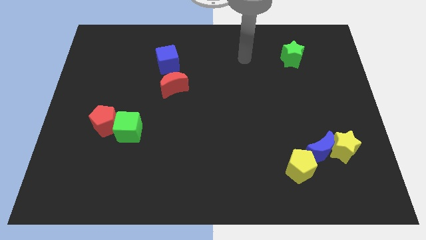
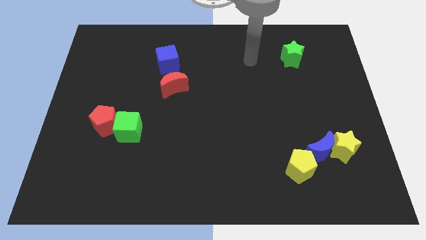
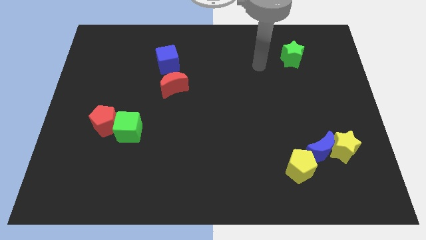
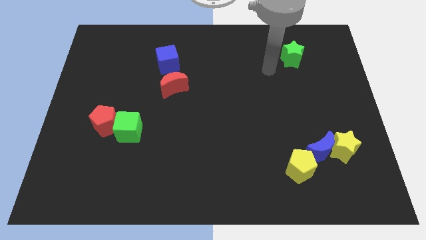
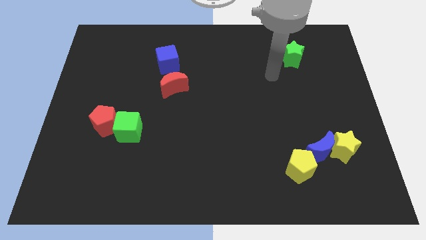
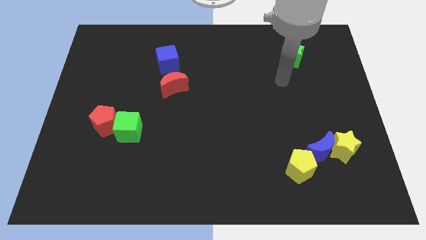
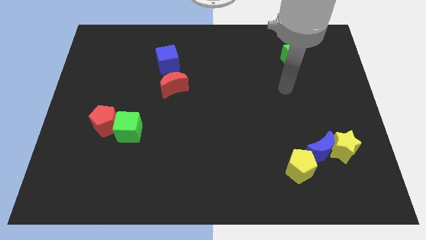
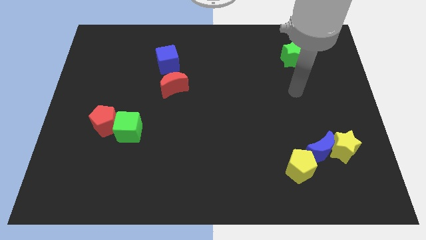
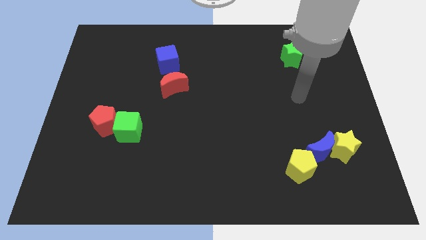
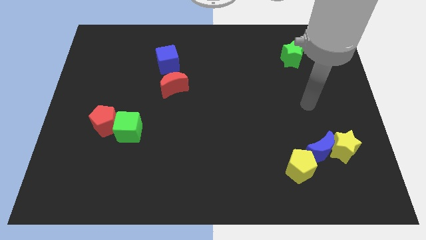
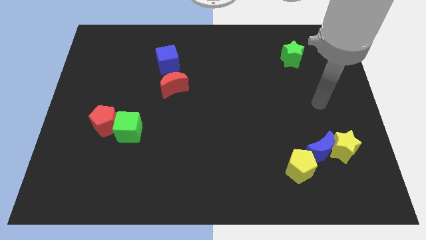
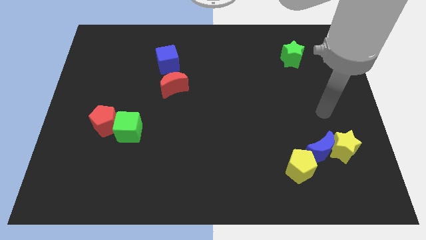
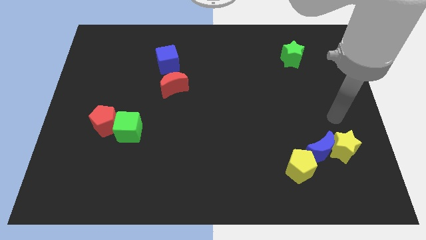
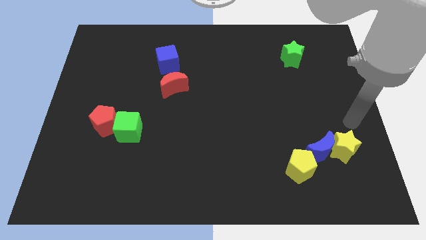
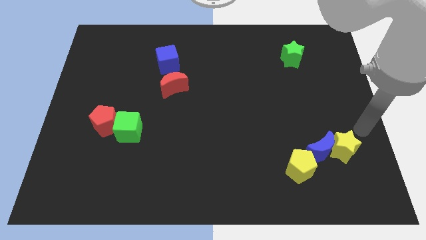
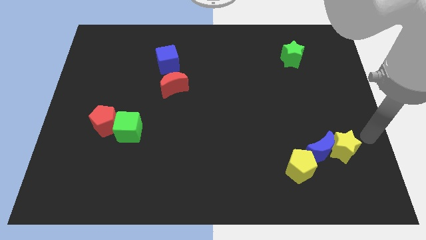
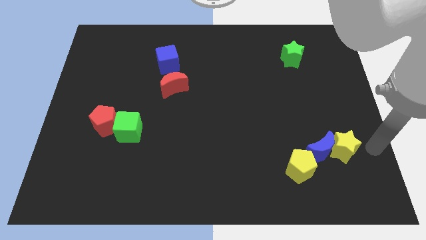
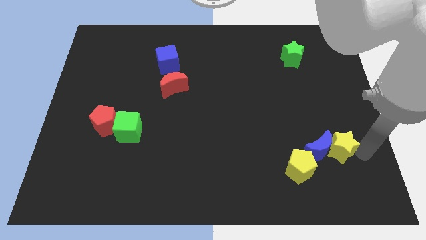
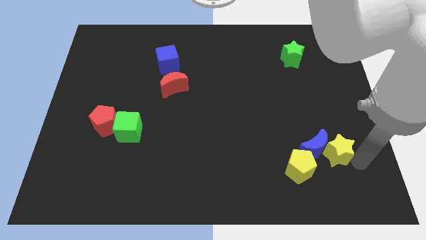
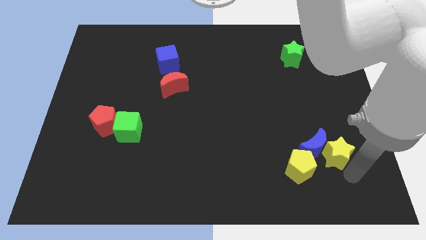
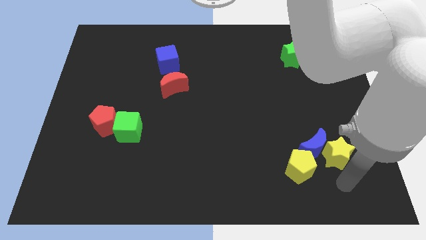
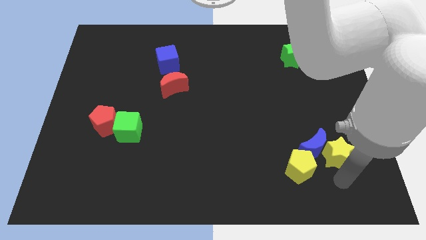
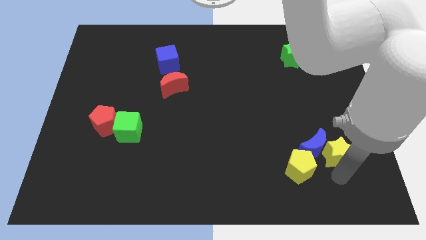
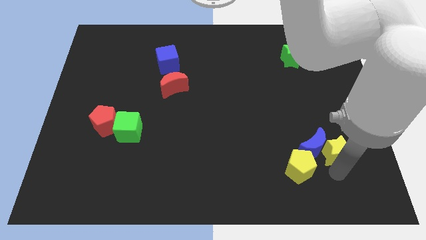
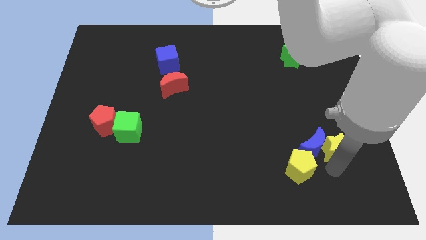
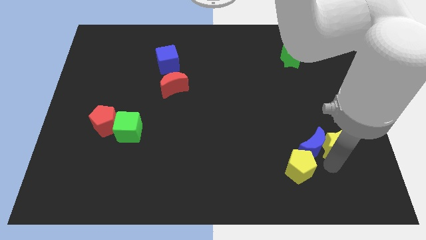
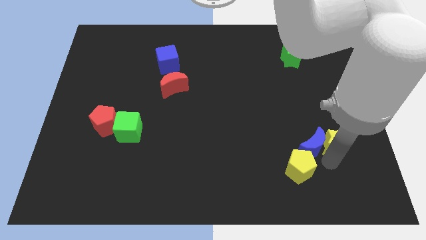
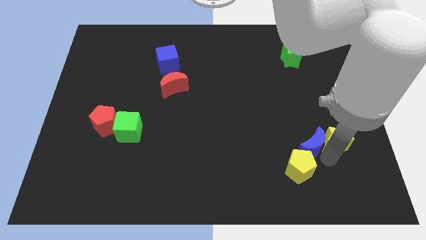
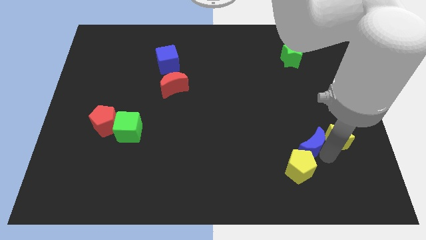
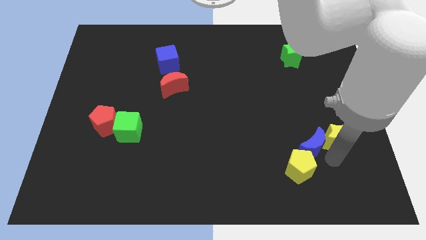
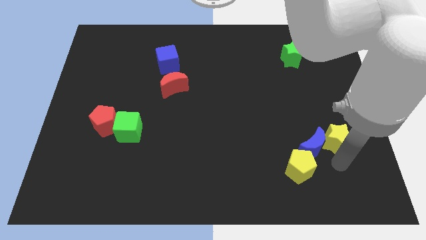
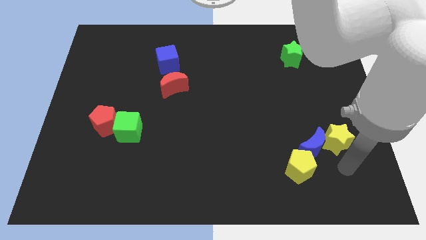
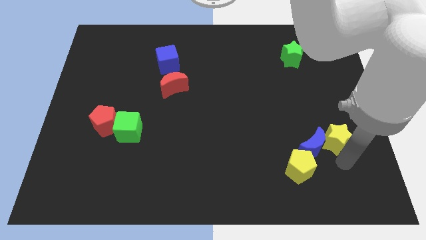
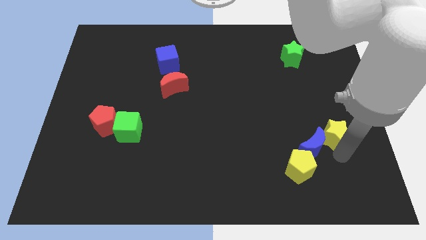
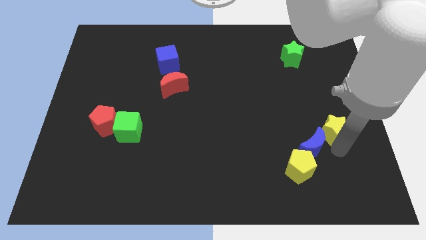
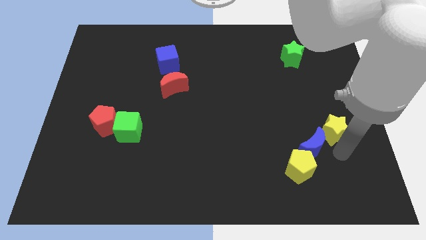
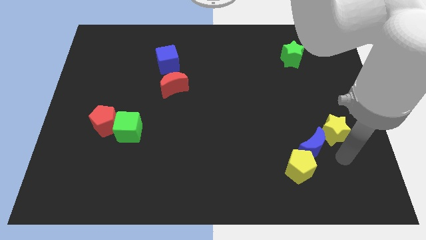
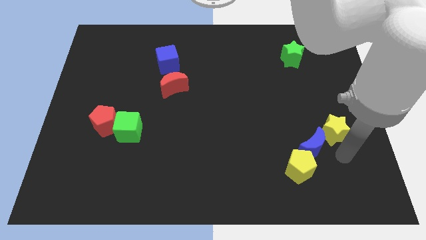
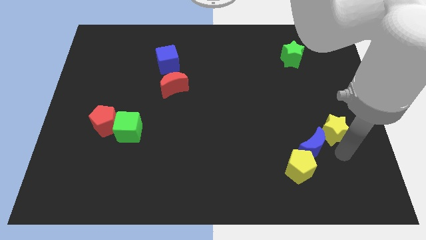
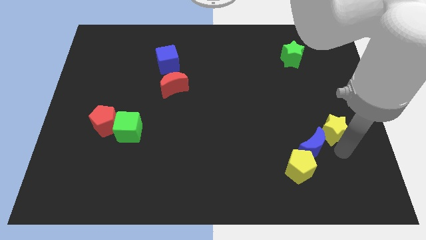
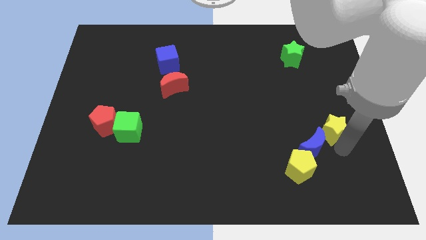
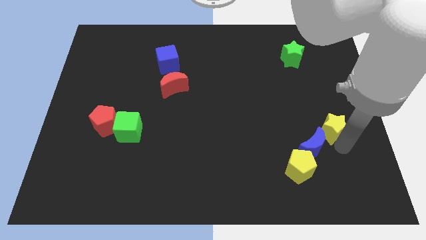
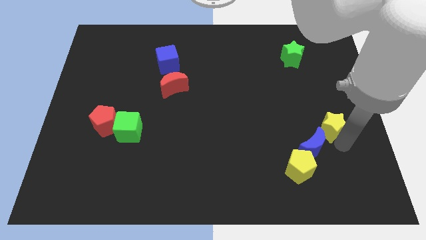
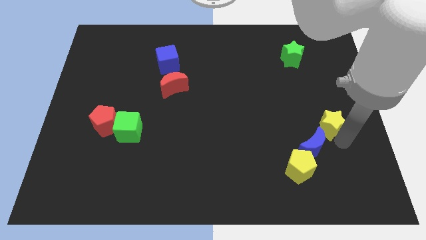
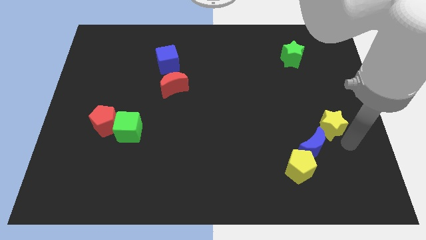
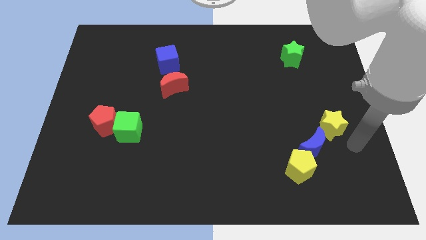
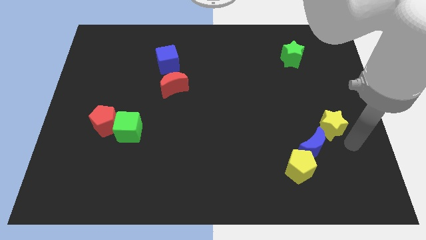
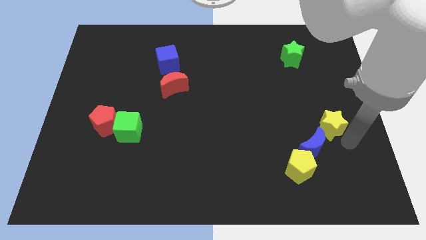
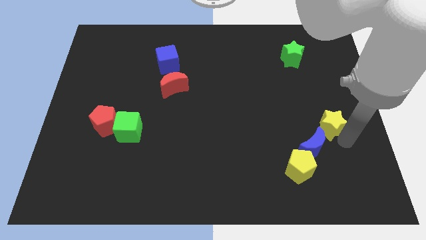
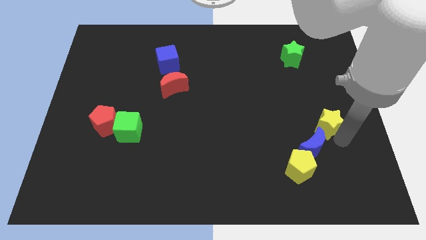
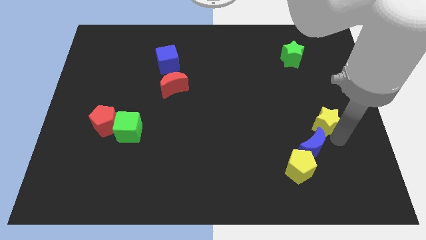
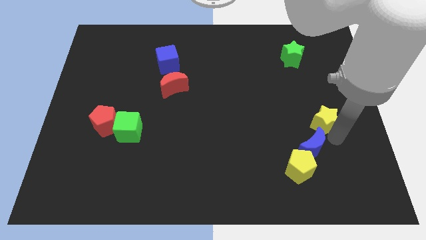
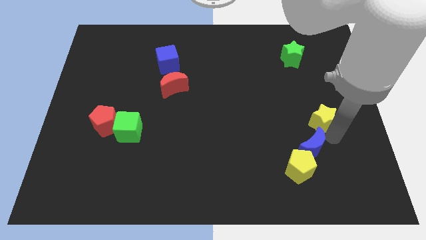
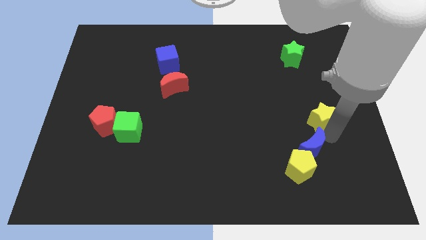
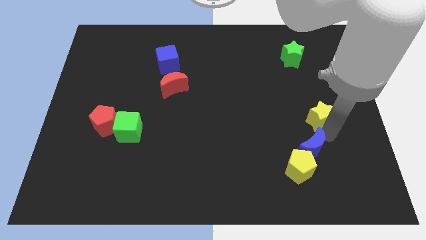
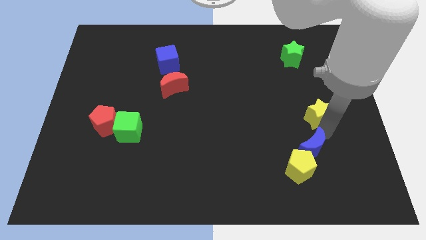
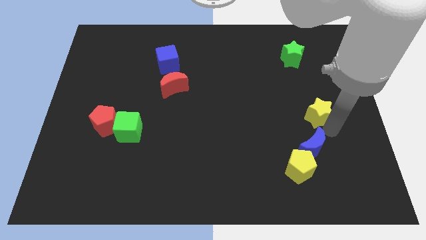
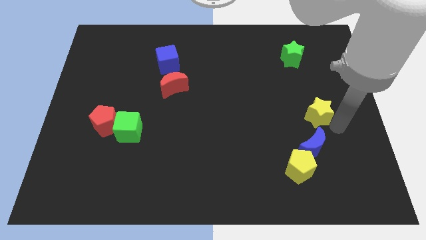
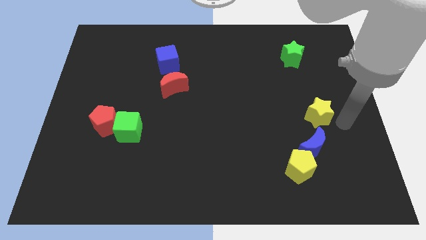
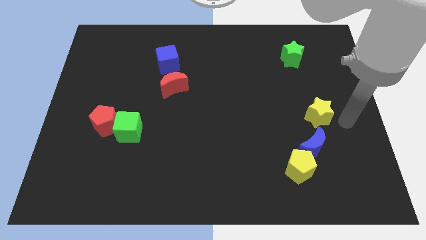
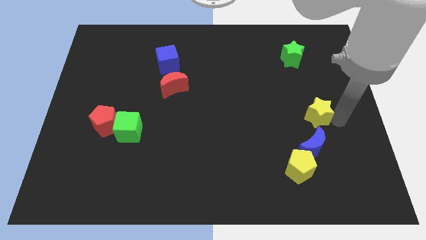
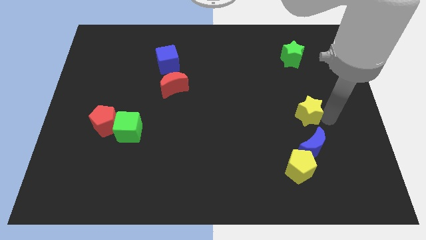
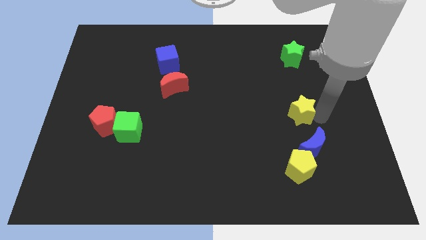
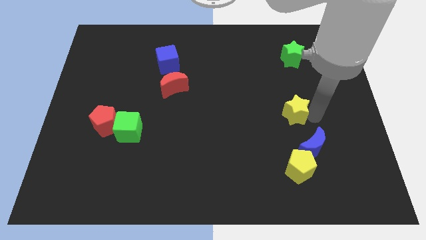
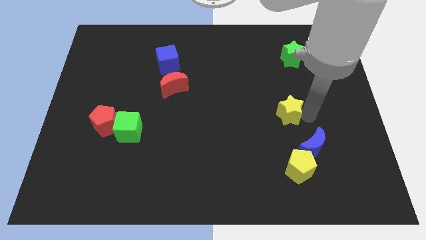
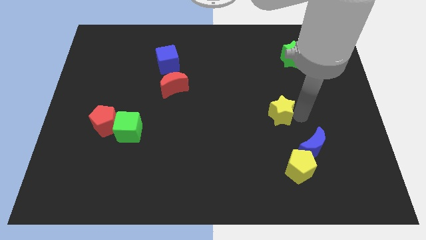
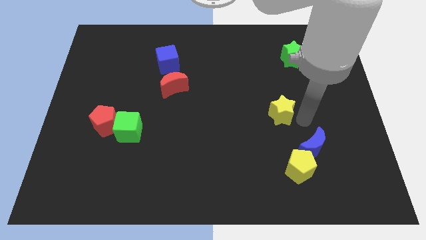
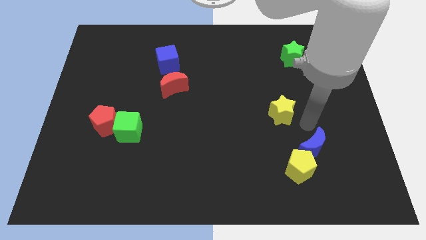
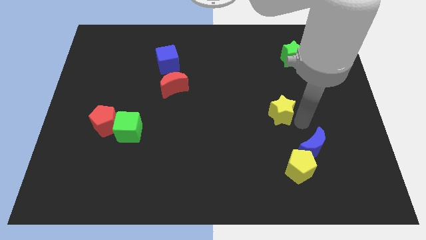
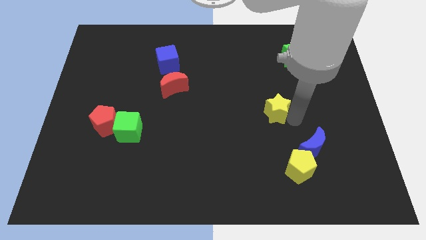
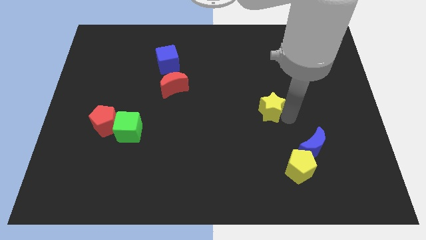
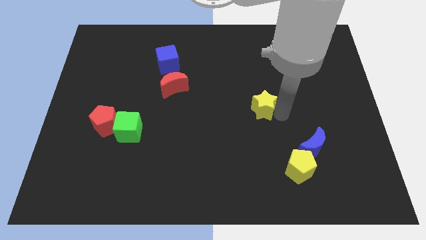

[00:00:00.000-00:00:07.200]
slide the yellow star to the center
